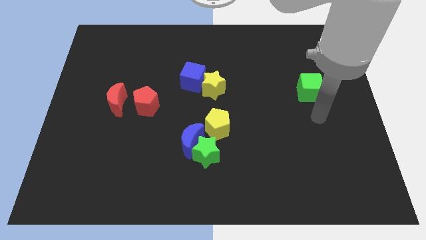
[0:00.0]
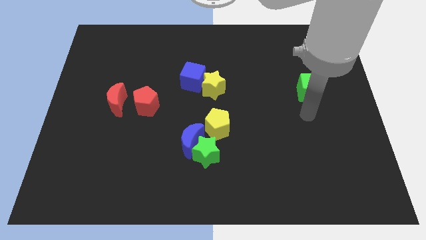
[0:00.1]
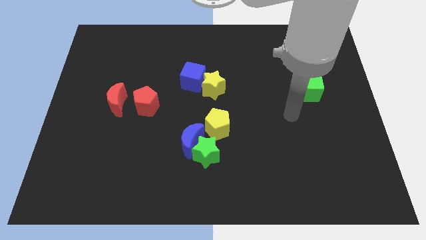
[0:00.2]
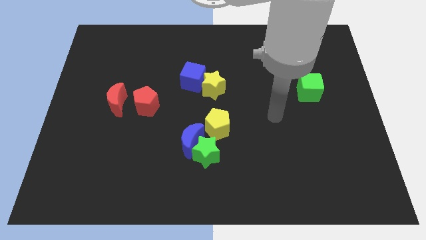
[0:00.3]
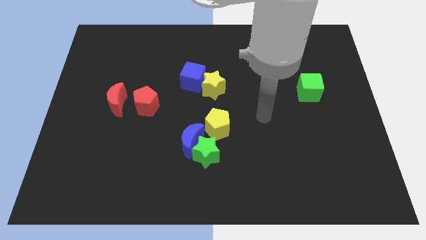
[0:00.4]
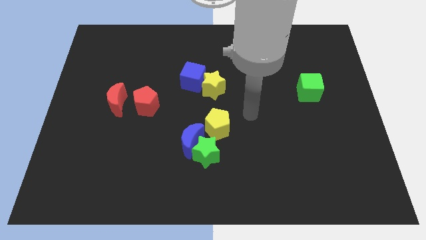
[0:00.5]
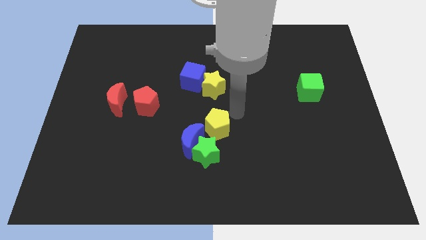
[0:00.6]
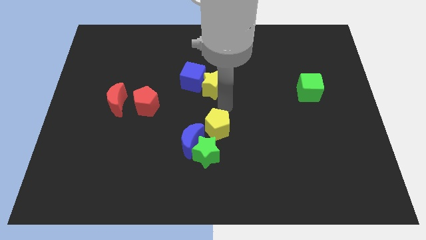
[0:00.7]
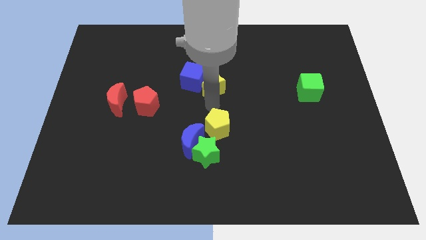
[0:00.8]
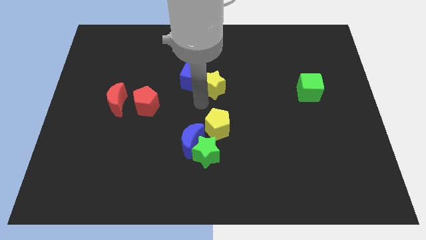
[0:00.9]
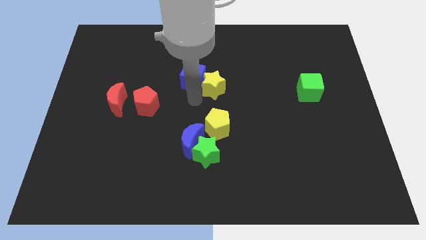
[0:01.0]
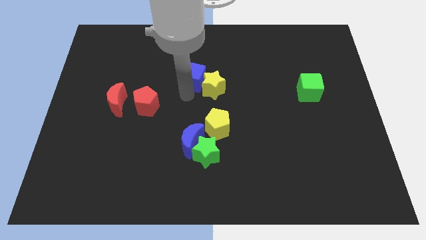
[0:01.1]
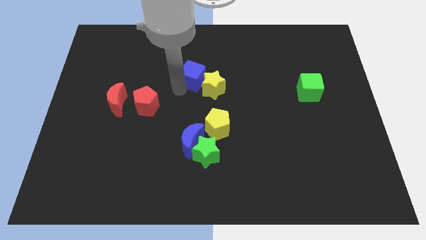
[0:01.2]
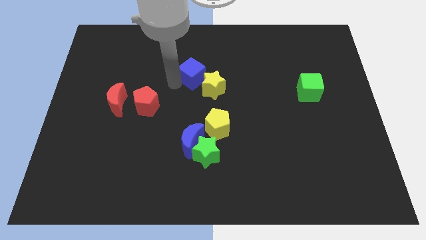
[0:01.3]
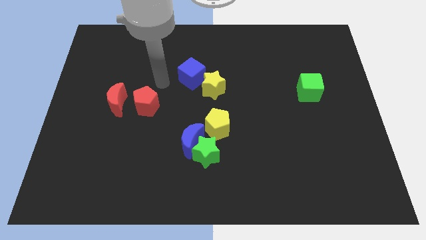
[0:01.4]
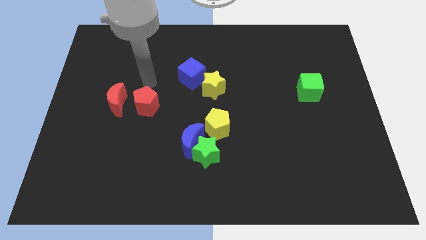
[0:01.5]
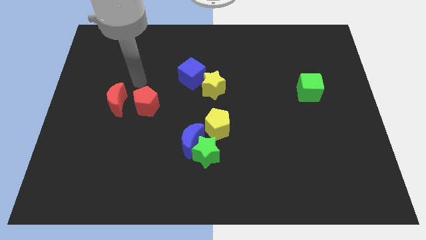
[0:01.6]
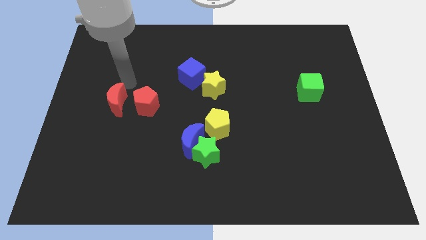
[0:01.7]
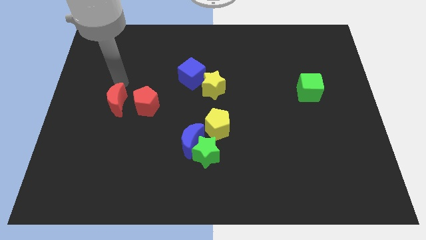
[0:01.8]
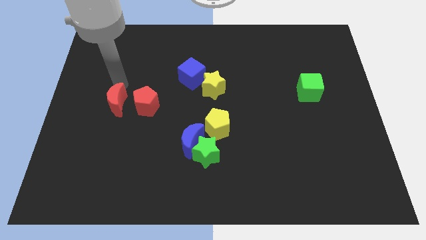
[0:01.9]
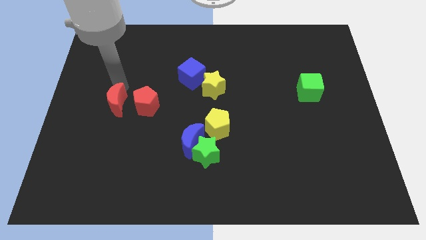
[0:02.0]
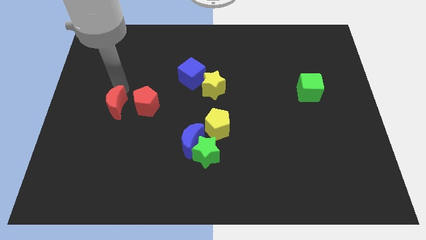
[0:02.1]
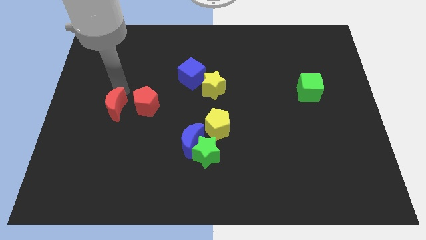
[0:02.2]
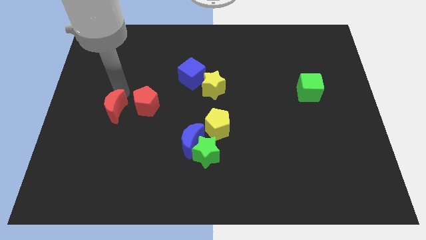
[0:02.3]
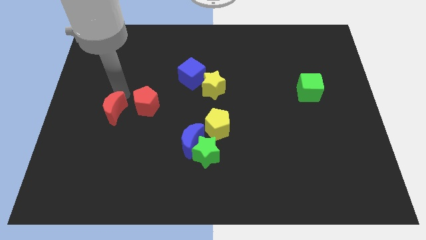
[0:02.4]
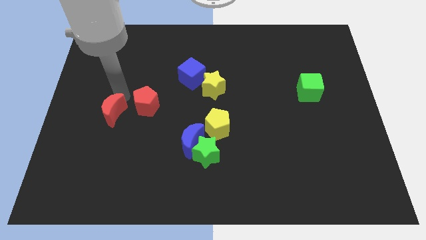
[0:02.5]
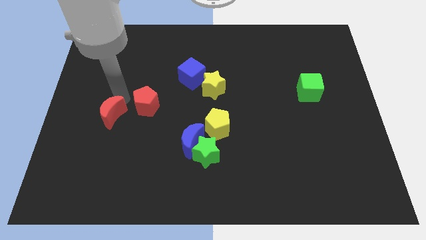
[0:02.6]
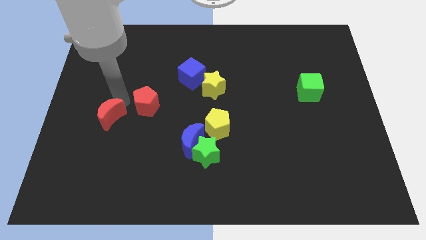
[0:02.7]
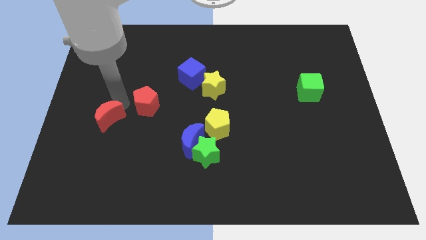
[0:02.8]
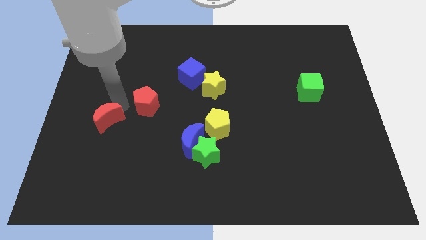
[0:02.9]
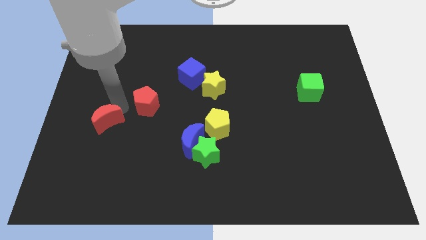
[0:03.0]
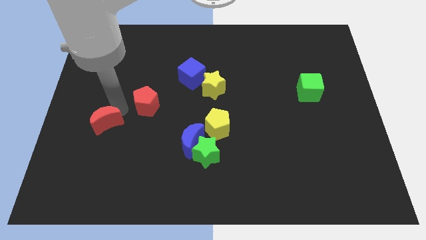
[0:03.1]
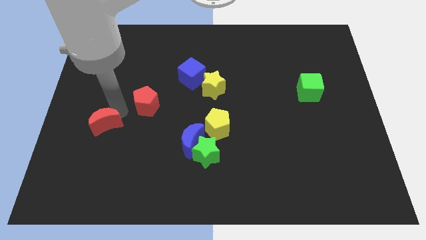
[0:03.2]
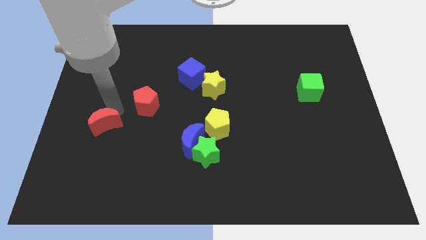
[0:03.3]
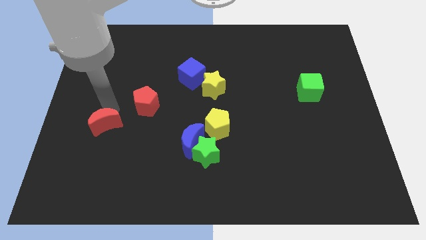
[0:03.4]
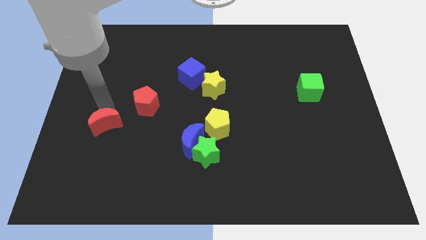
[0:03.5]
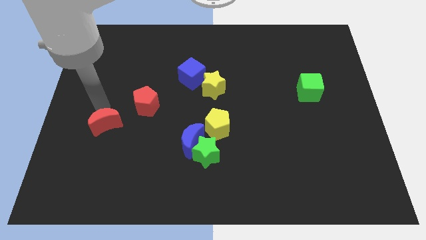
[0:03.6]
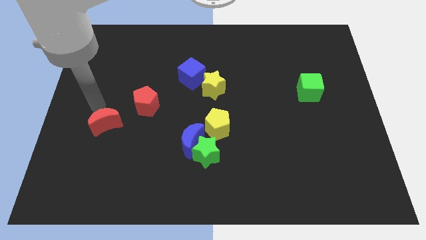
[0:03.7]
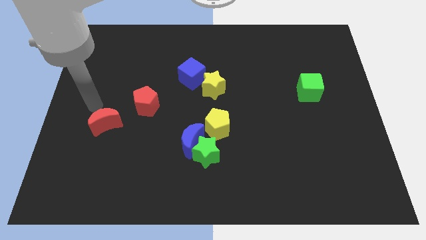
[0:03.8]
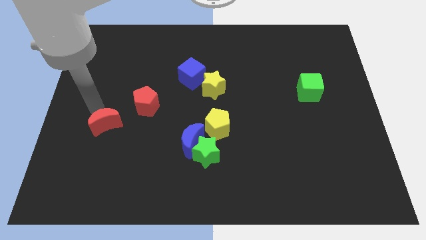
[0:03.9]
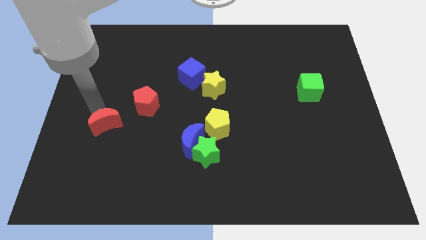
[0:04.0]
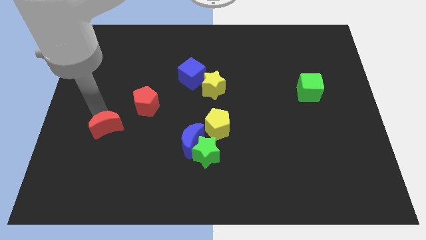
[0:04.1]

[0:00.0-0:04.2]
slightly push the red moon downwards

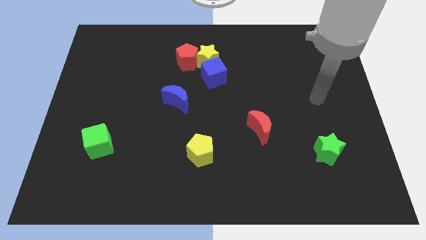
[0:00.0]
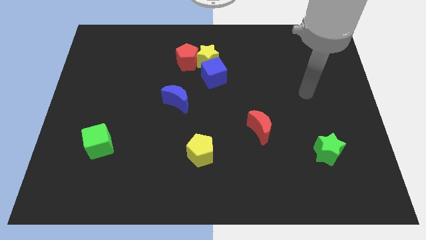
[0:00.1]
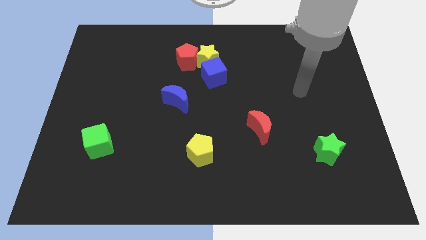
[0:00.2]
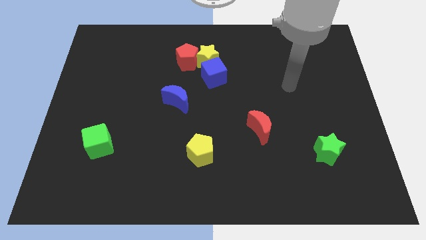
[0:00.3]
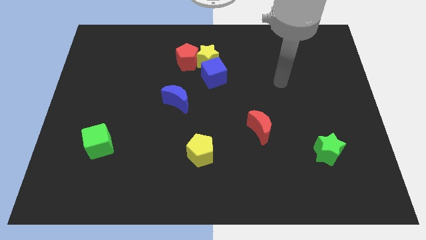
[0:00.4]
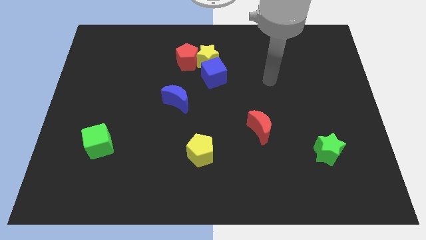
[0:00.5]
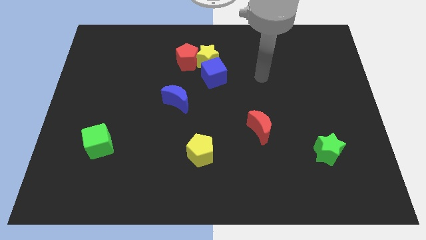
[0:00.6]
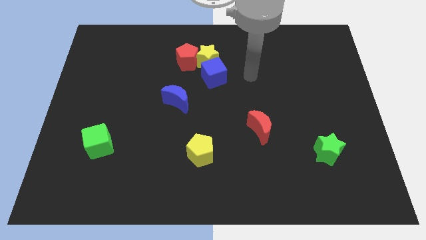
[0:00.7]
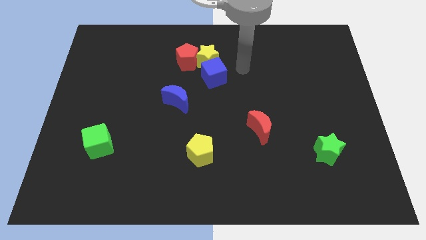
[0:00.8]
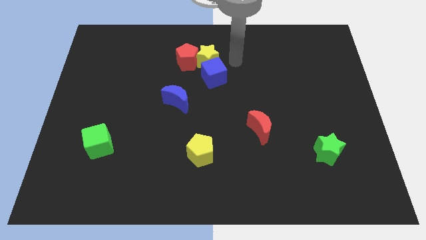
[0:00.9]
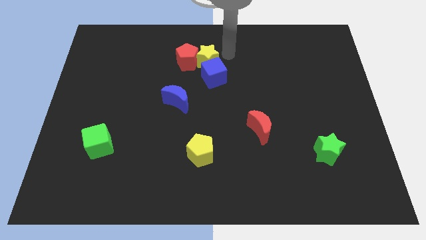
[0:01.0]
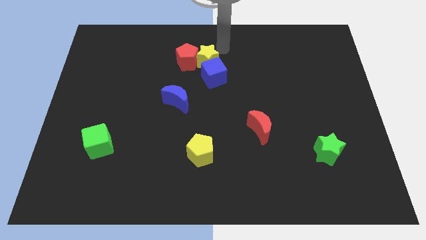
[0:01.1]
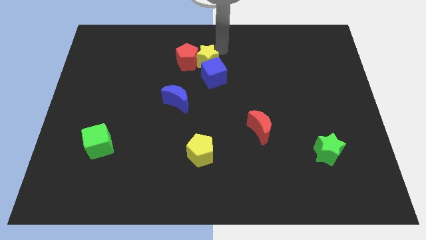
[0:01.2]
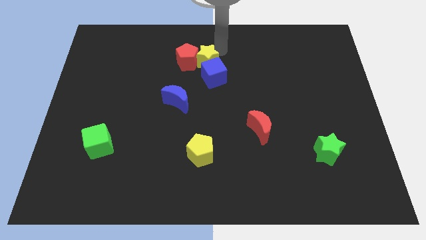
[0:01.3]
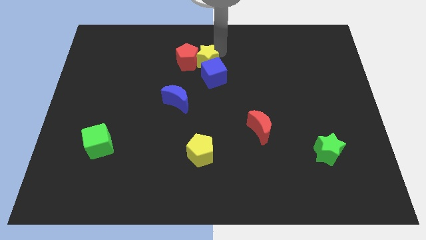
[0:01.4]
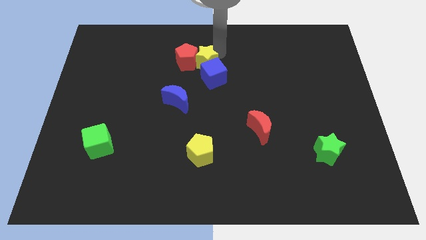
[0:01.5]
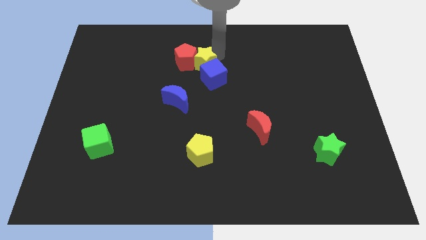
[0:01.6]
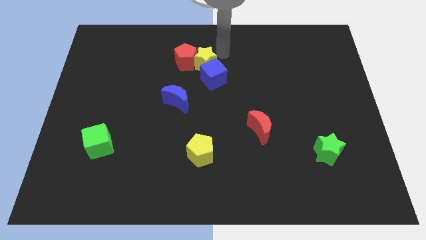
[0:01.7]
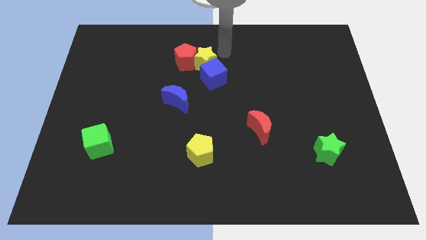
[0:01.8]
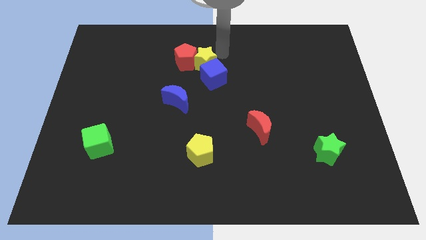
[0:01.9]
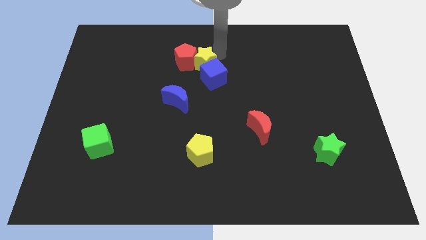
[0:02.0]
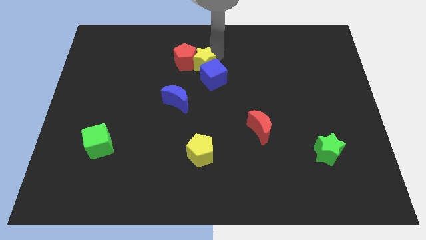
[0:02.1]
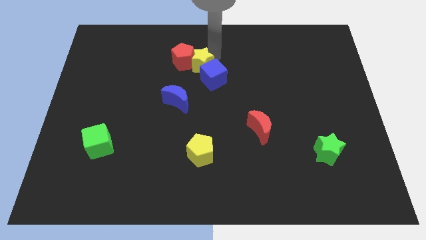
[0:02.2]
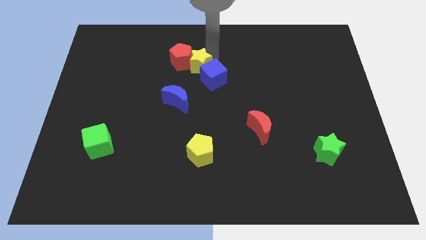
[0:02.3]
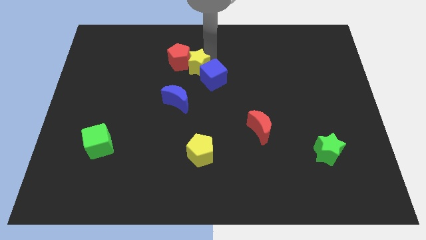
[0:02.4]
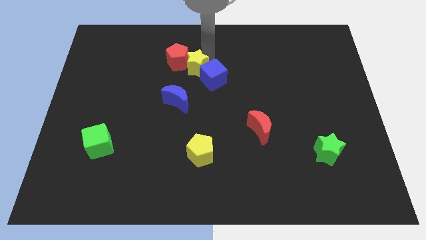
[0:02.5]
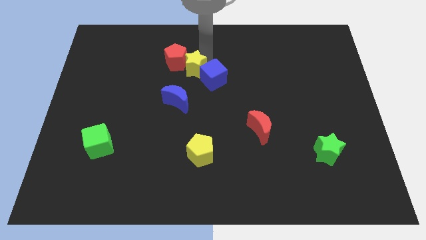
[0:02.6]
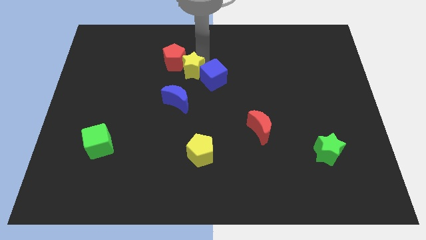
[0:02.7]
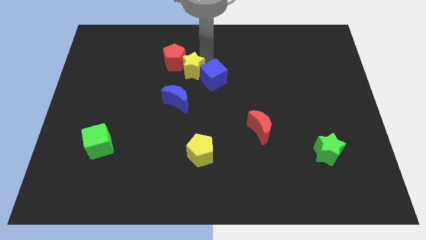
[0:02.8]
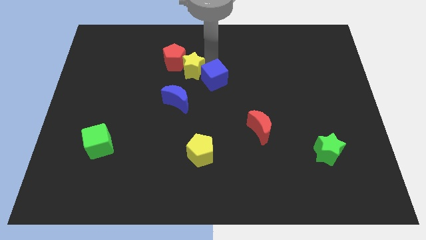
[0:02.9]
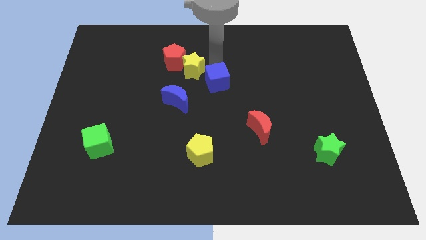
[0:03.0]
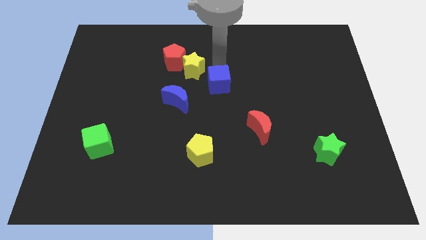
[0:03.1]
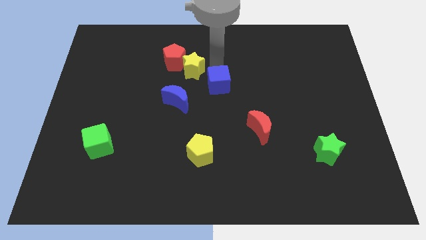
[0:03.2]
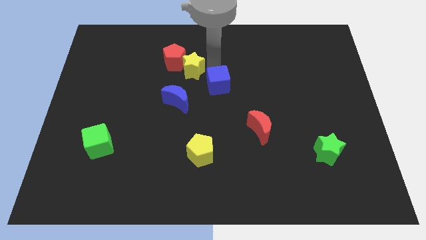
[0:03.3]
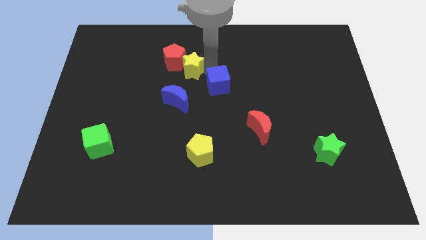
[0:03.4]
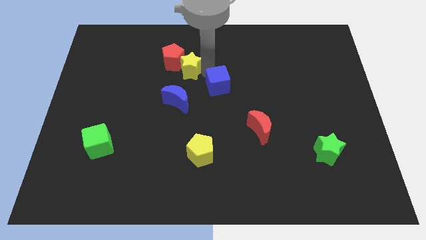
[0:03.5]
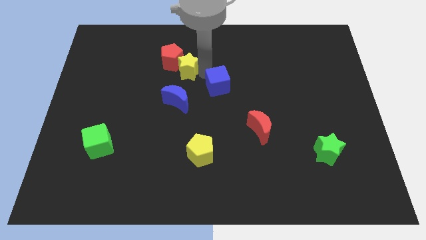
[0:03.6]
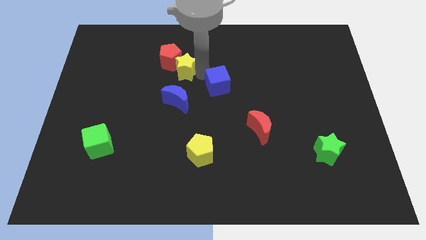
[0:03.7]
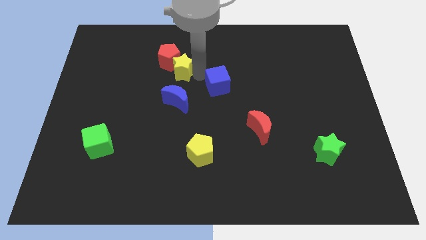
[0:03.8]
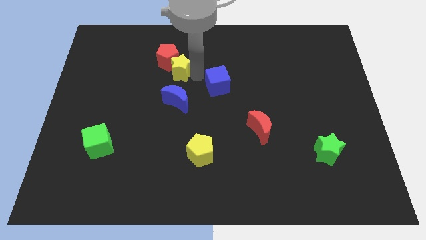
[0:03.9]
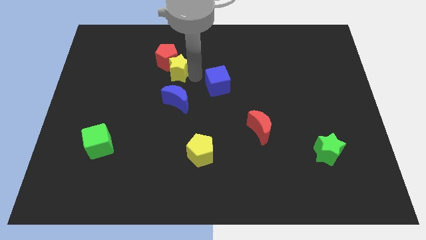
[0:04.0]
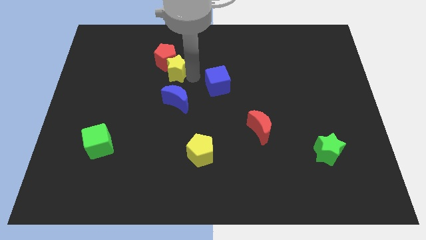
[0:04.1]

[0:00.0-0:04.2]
slightly push the yellow star to the left

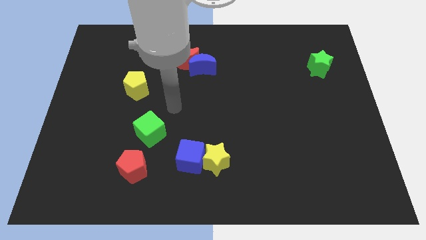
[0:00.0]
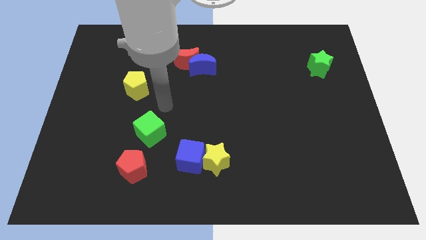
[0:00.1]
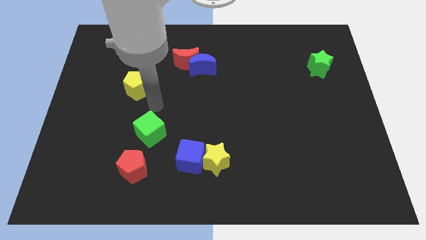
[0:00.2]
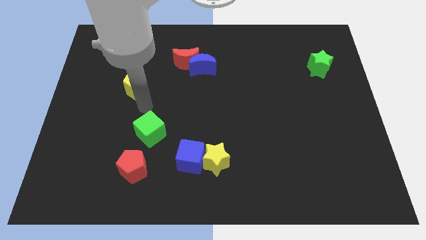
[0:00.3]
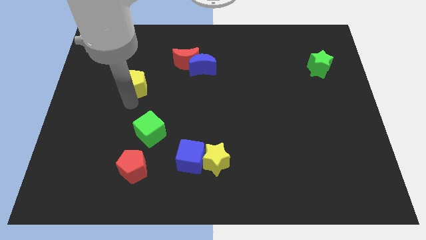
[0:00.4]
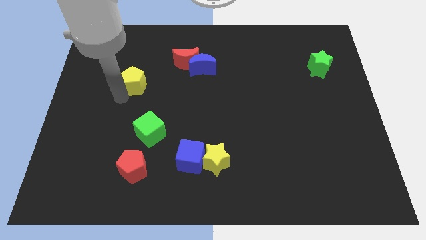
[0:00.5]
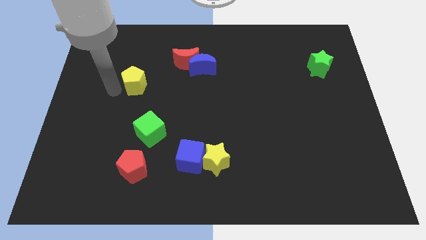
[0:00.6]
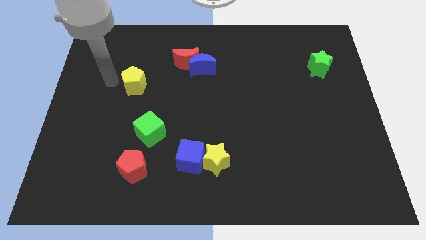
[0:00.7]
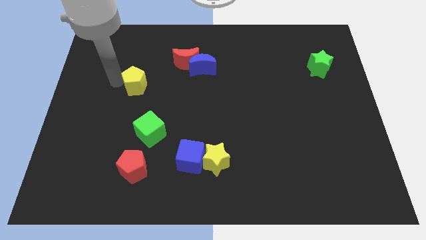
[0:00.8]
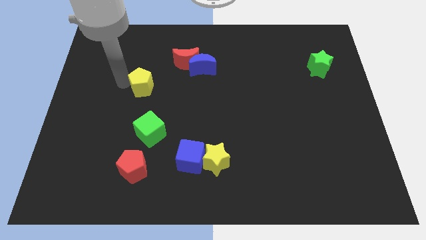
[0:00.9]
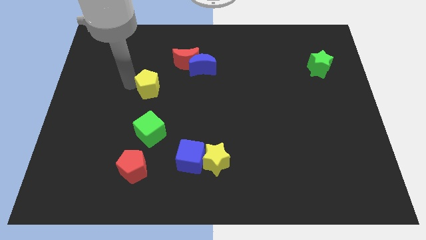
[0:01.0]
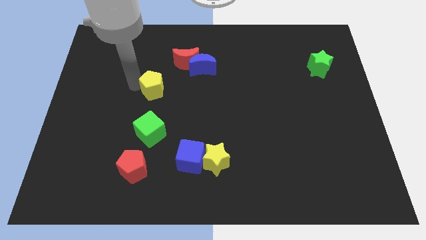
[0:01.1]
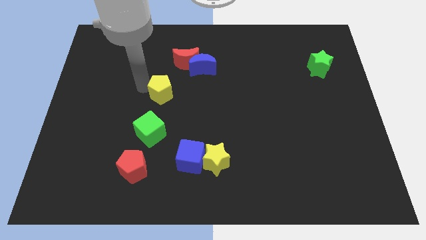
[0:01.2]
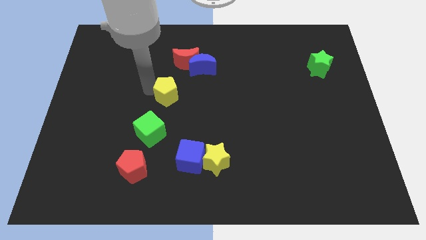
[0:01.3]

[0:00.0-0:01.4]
slightly slide the yellow pentagon right
